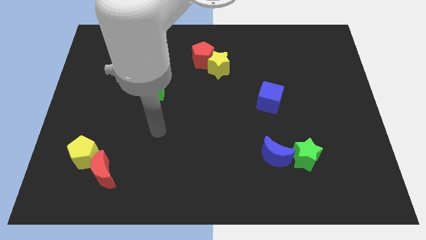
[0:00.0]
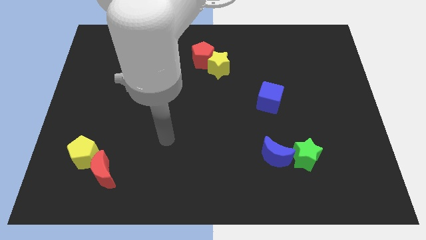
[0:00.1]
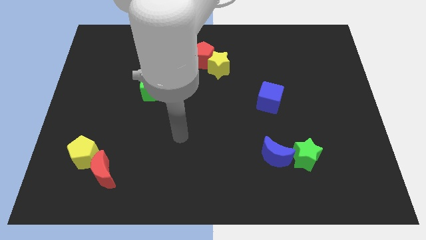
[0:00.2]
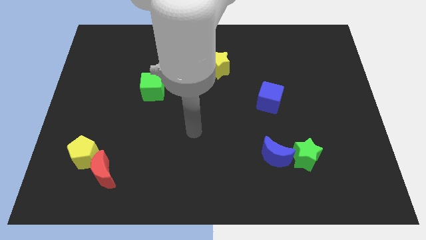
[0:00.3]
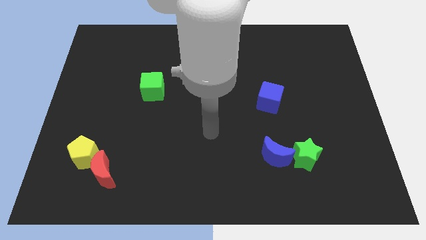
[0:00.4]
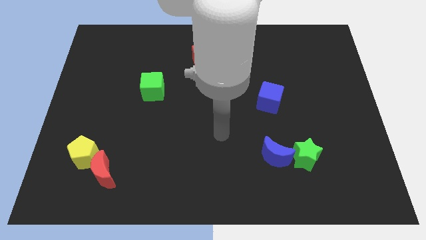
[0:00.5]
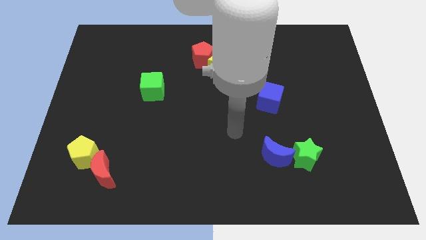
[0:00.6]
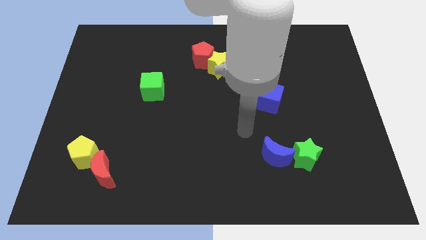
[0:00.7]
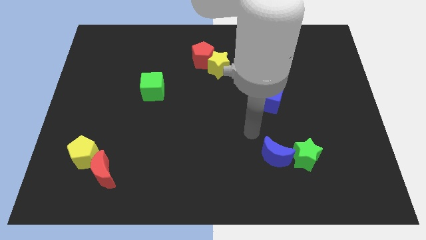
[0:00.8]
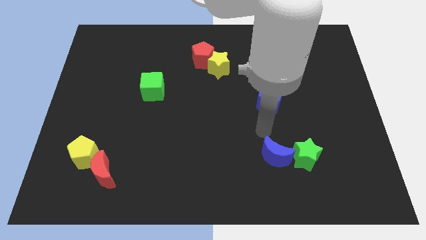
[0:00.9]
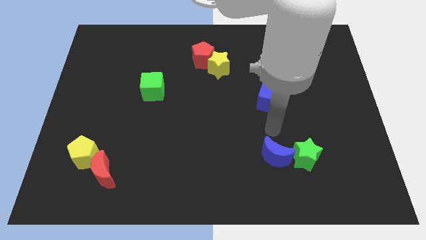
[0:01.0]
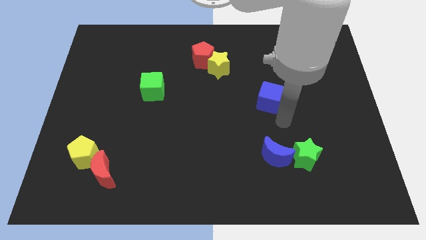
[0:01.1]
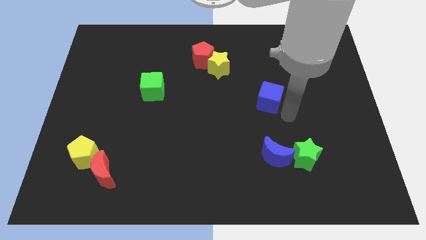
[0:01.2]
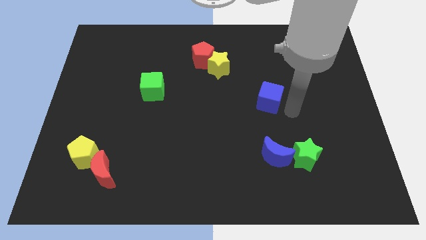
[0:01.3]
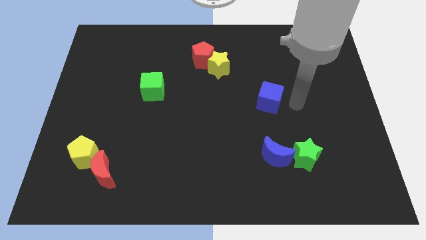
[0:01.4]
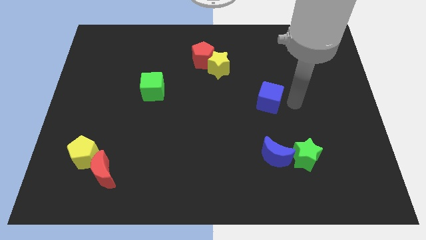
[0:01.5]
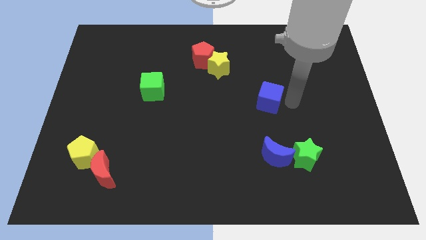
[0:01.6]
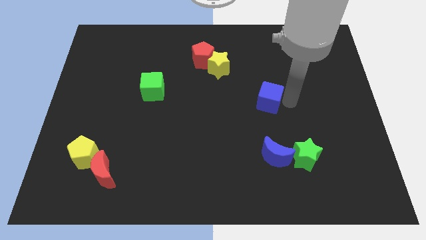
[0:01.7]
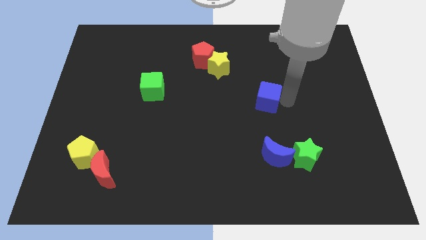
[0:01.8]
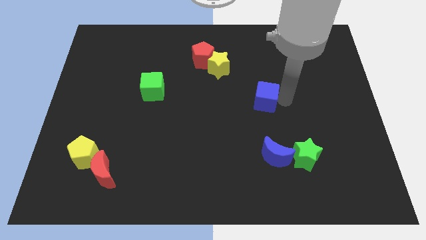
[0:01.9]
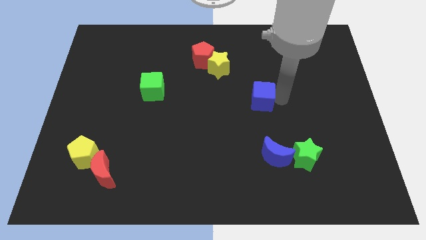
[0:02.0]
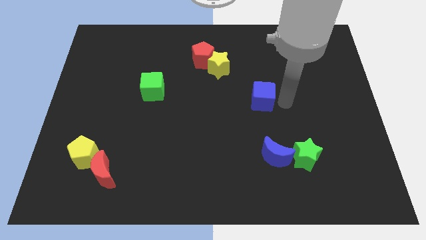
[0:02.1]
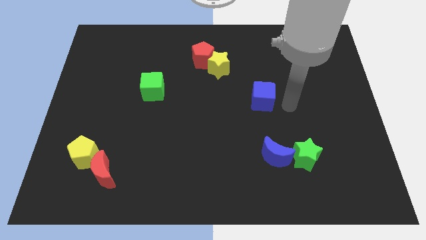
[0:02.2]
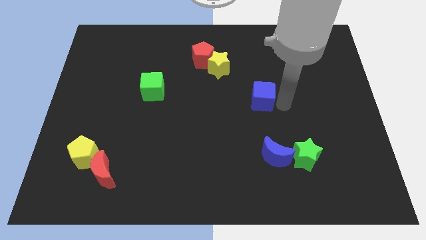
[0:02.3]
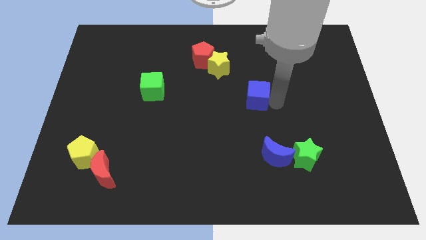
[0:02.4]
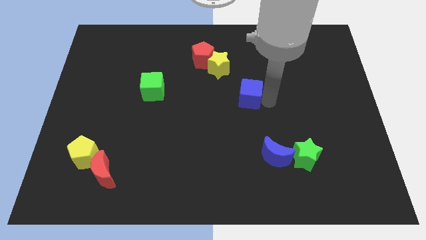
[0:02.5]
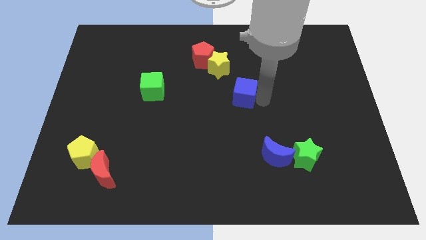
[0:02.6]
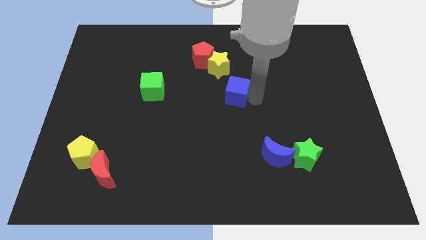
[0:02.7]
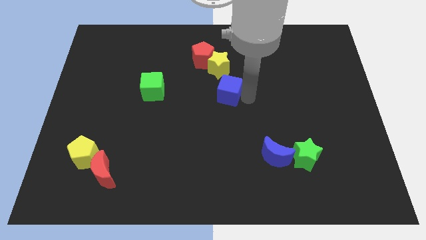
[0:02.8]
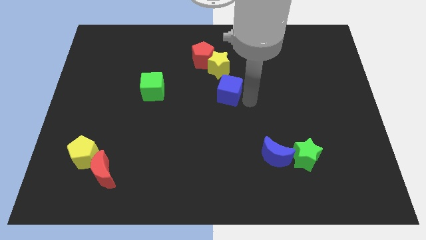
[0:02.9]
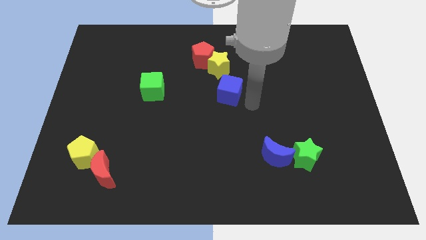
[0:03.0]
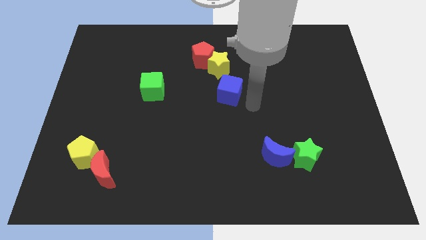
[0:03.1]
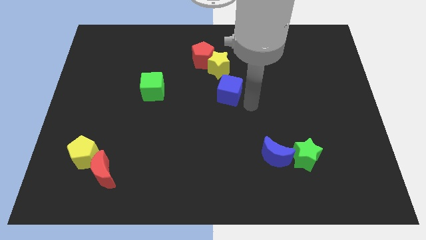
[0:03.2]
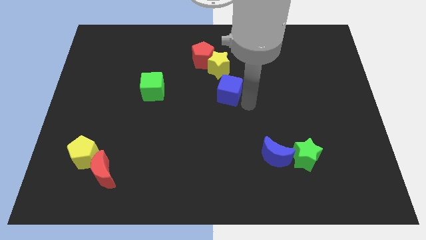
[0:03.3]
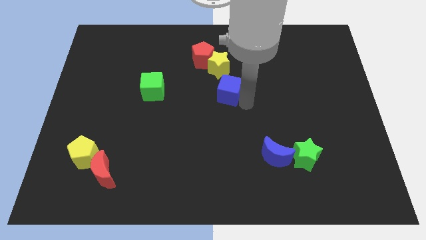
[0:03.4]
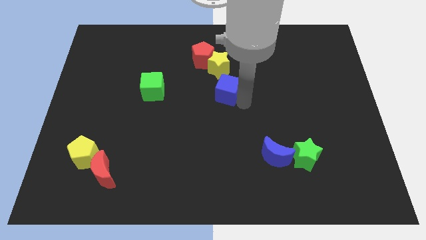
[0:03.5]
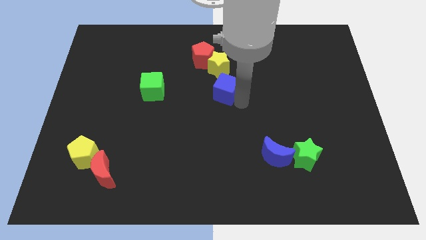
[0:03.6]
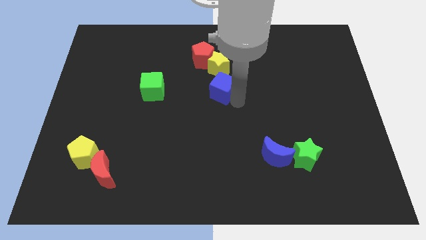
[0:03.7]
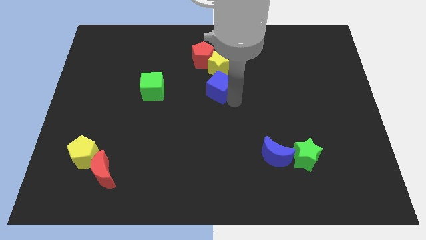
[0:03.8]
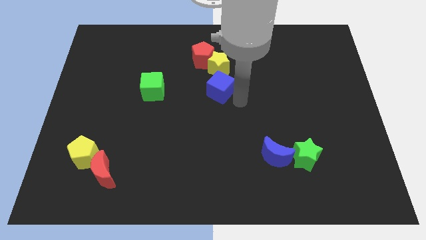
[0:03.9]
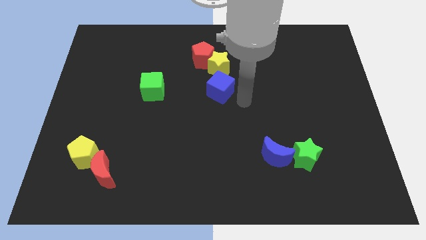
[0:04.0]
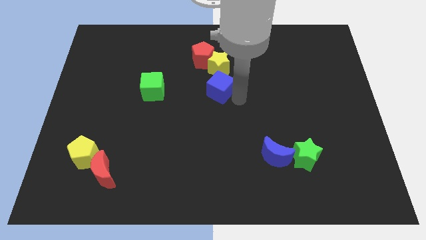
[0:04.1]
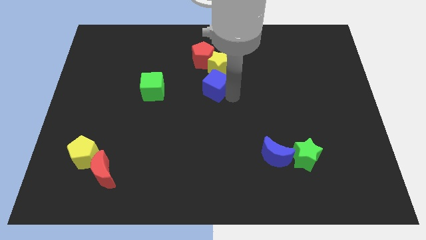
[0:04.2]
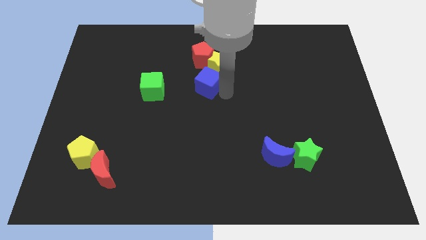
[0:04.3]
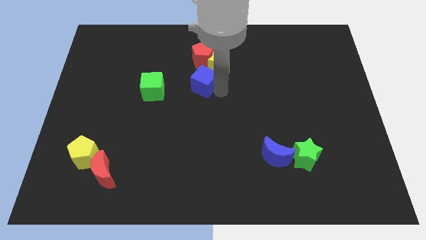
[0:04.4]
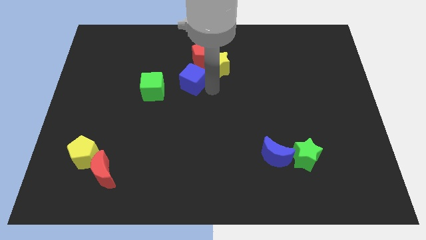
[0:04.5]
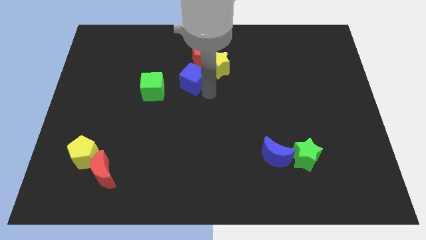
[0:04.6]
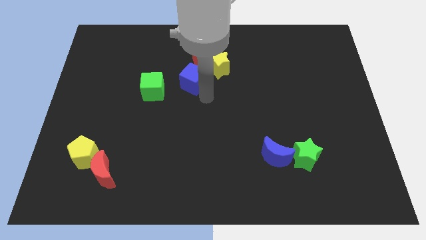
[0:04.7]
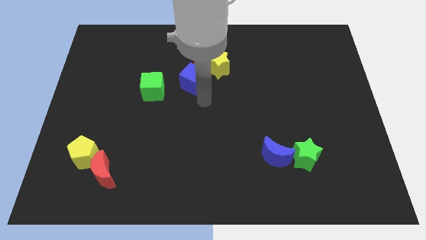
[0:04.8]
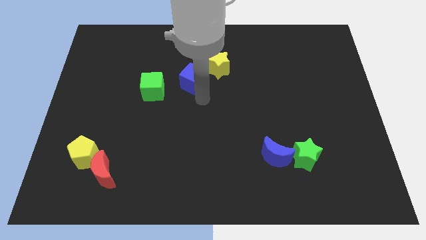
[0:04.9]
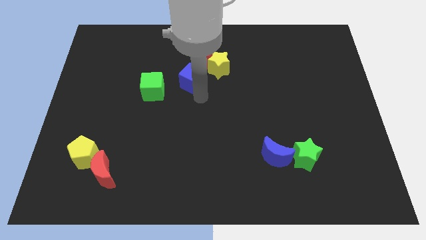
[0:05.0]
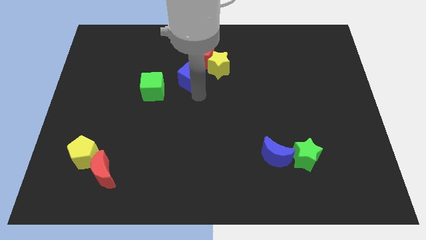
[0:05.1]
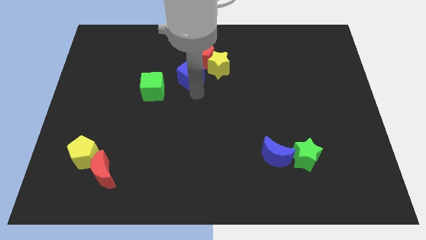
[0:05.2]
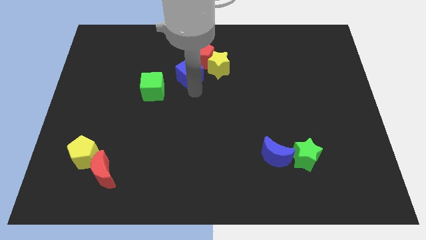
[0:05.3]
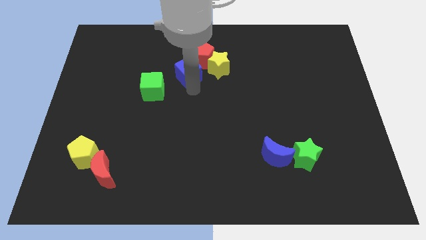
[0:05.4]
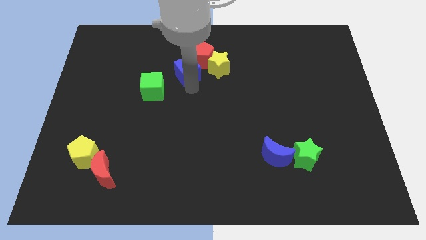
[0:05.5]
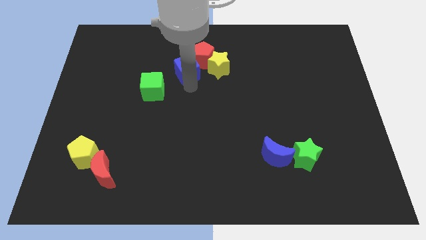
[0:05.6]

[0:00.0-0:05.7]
slide the blue cube just left of the red pentagon

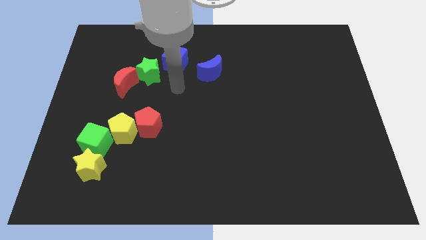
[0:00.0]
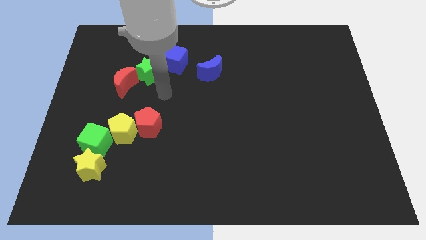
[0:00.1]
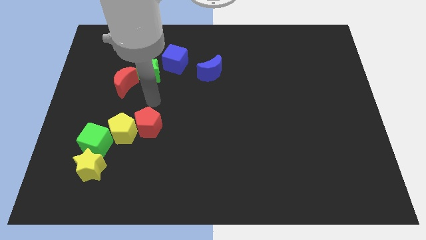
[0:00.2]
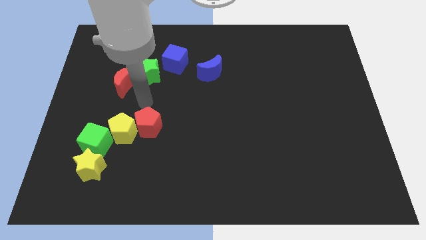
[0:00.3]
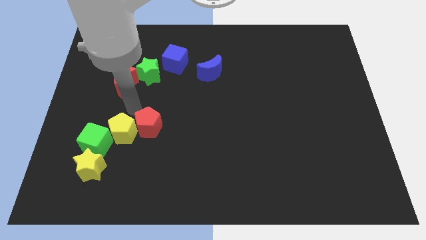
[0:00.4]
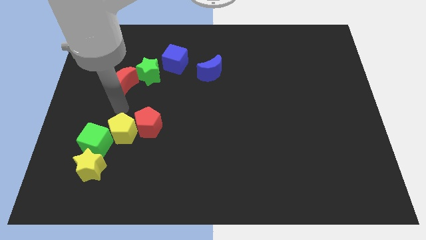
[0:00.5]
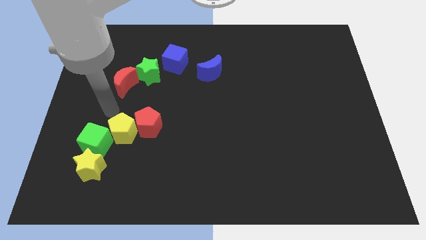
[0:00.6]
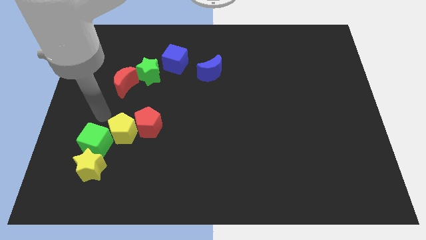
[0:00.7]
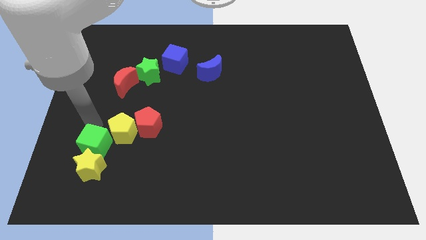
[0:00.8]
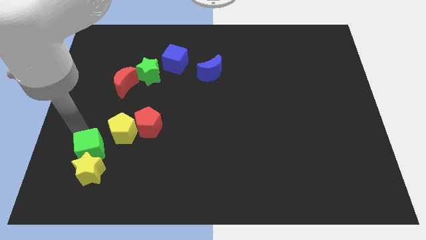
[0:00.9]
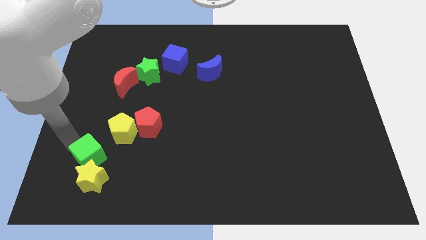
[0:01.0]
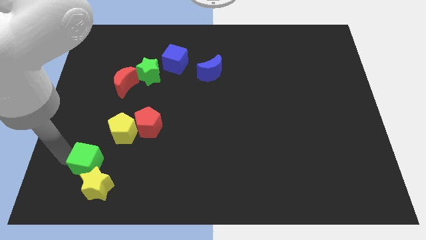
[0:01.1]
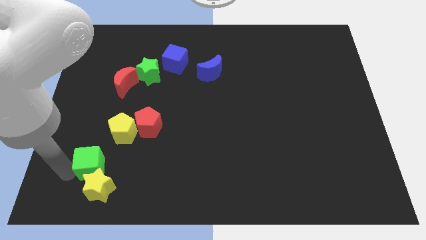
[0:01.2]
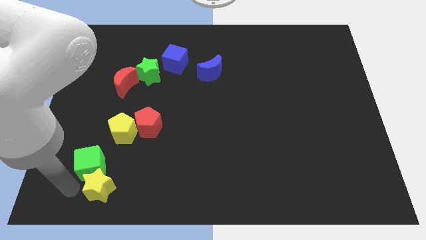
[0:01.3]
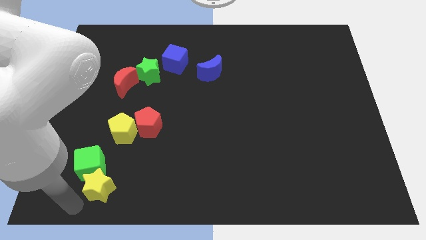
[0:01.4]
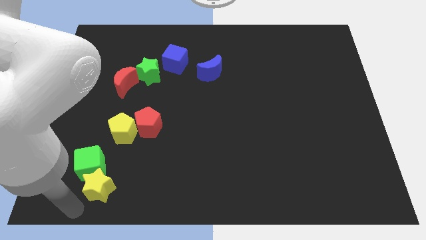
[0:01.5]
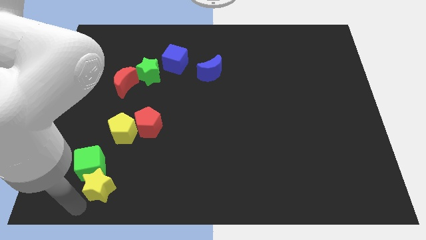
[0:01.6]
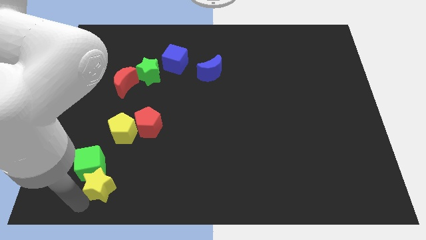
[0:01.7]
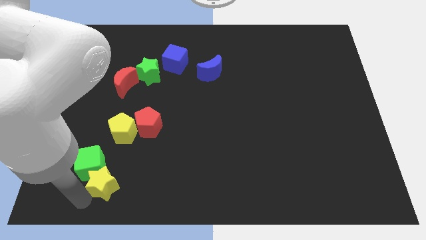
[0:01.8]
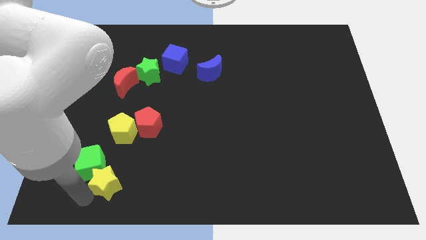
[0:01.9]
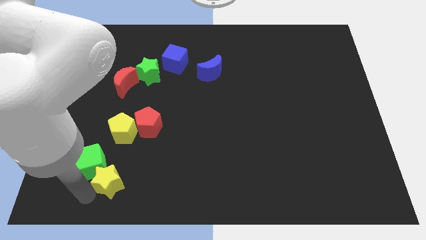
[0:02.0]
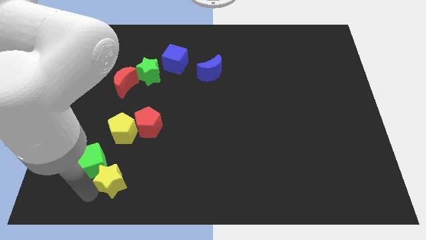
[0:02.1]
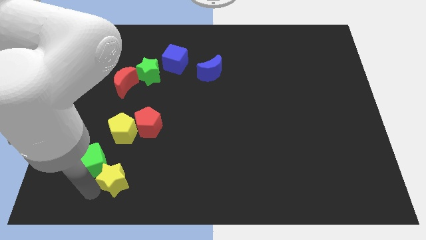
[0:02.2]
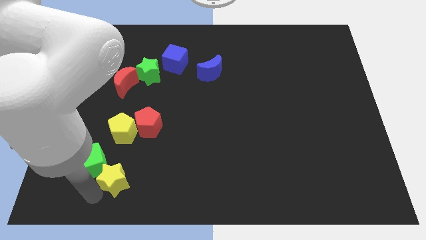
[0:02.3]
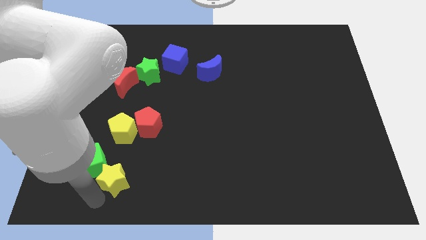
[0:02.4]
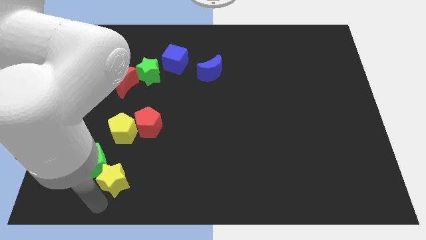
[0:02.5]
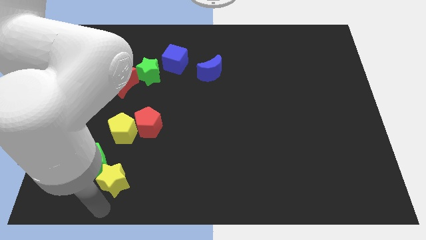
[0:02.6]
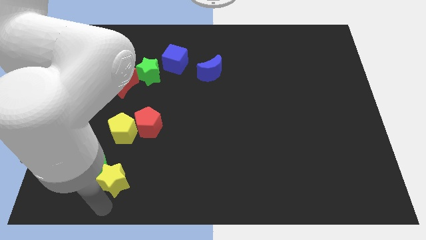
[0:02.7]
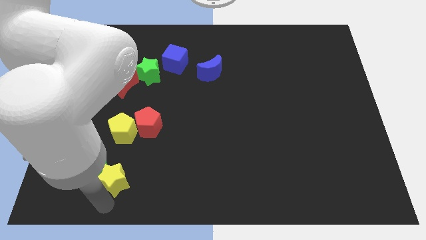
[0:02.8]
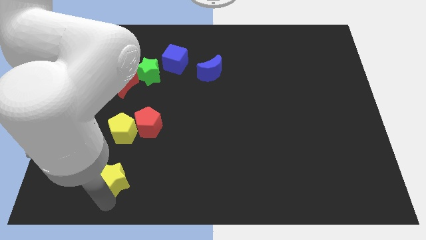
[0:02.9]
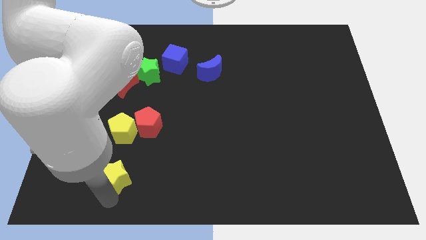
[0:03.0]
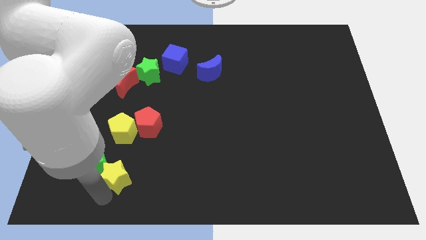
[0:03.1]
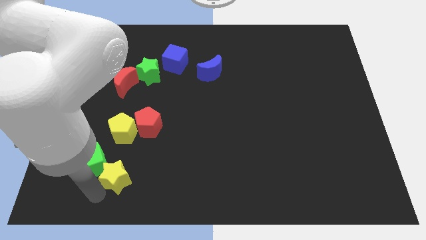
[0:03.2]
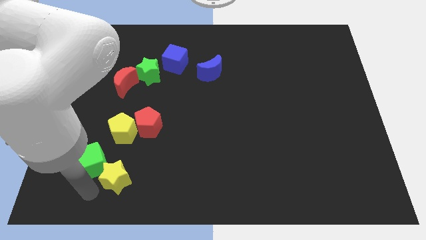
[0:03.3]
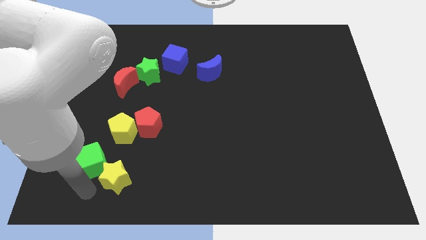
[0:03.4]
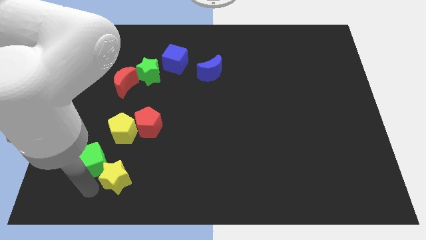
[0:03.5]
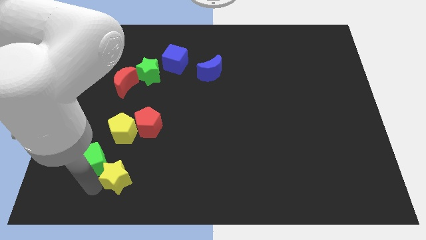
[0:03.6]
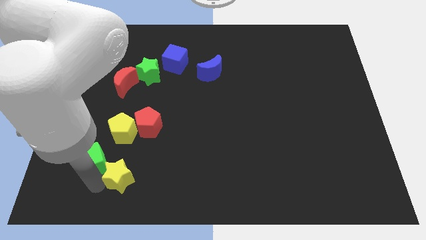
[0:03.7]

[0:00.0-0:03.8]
slide the yellow star to the bottom of the red pentagon
